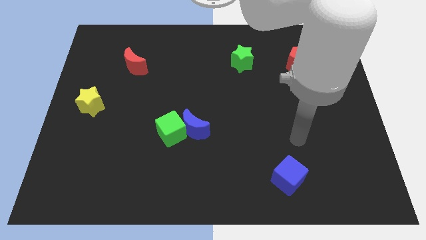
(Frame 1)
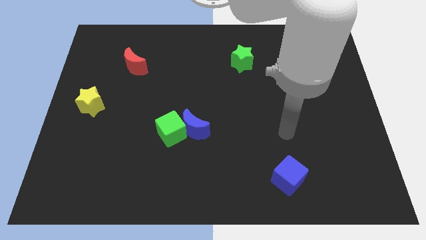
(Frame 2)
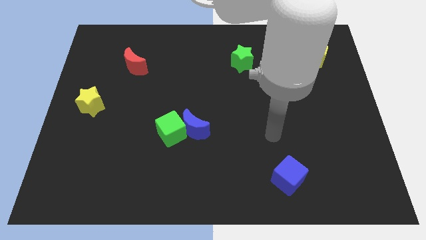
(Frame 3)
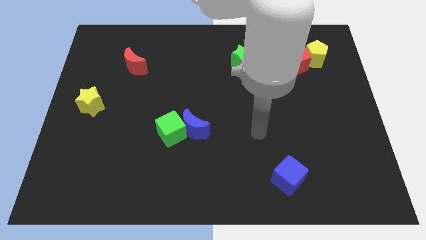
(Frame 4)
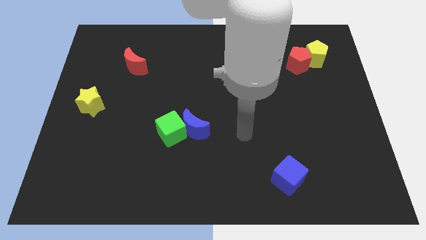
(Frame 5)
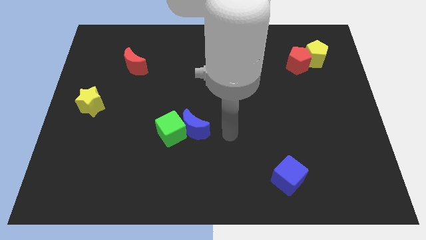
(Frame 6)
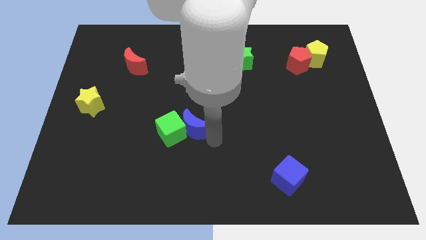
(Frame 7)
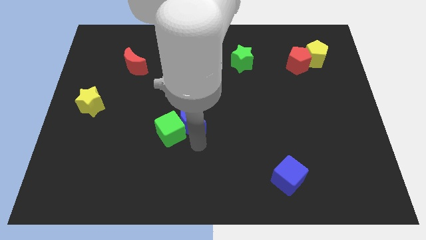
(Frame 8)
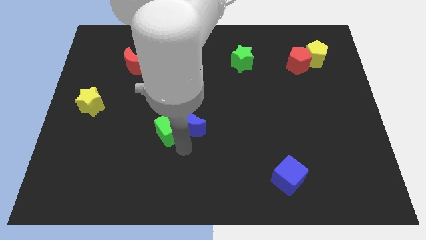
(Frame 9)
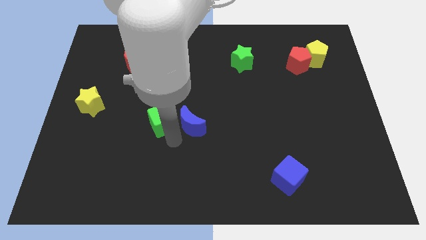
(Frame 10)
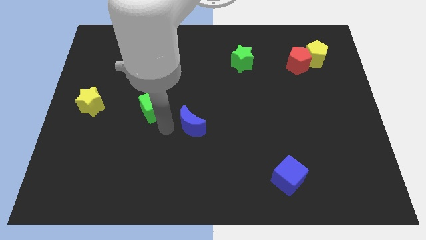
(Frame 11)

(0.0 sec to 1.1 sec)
pull the blue moon apart from the green cube

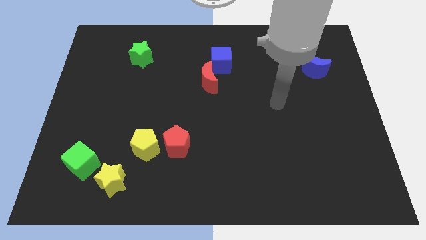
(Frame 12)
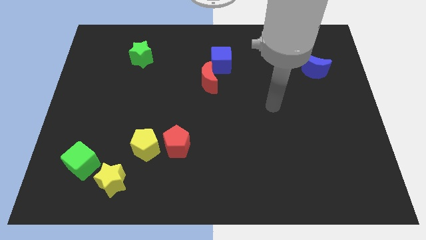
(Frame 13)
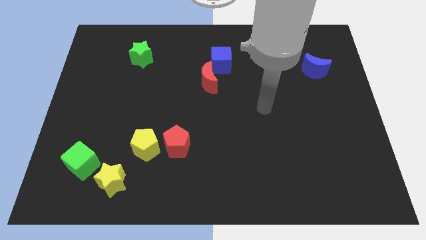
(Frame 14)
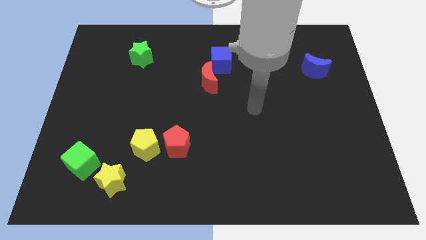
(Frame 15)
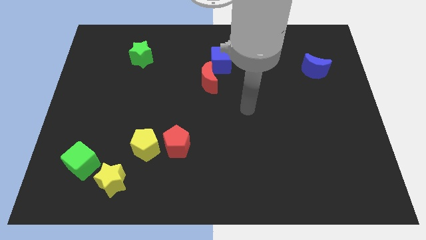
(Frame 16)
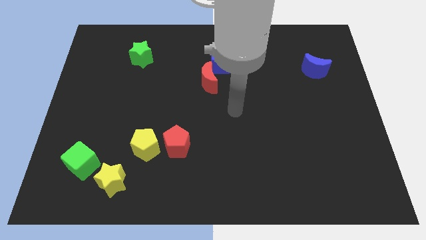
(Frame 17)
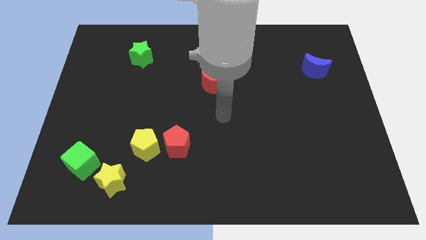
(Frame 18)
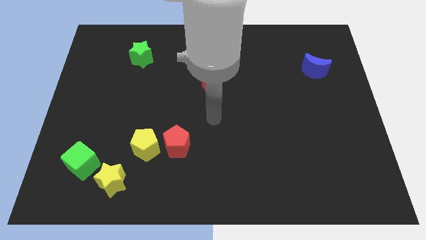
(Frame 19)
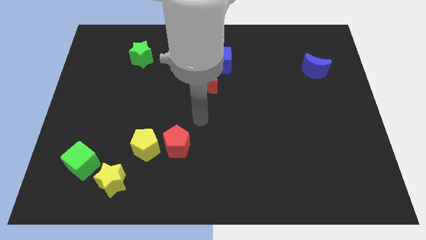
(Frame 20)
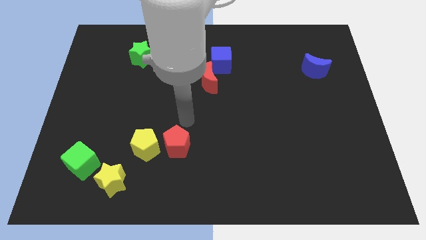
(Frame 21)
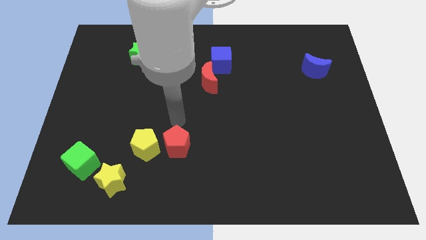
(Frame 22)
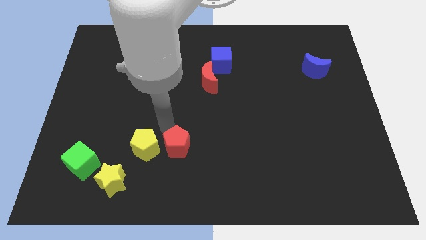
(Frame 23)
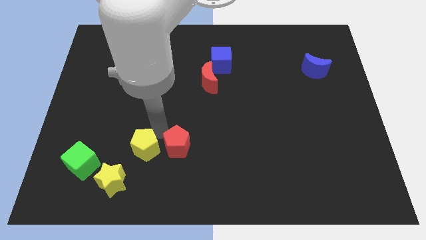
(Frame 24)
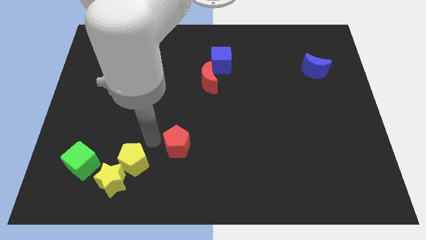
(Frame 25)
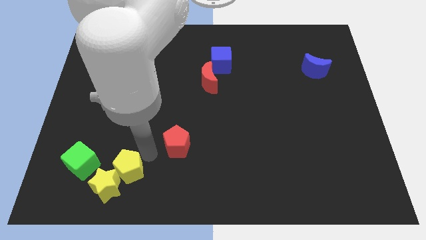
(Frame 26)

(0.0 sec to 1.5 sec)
pull the red pentagon apart from the yellow pentagon

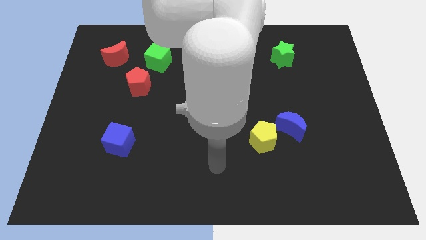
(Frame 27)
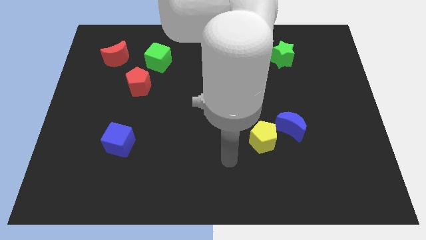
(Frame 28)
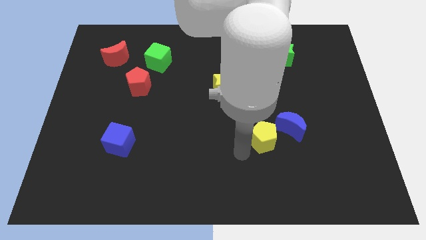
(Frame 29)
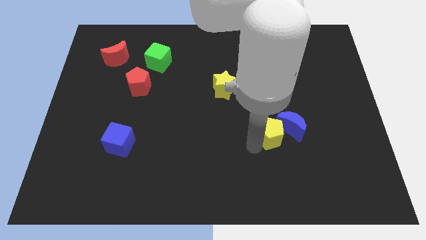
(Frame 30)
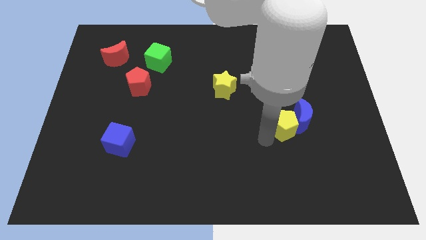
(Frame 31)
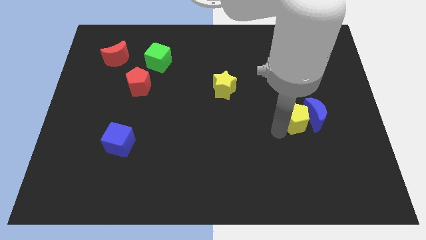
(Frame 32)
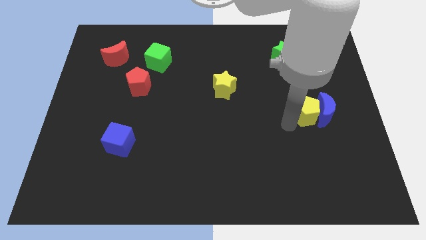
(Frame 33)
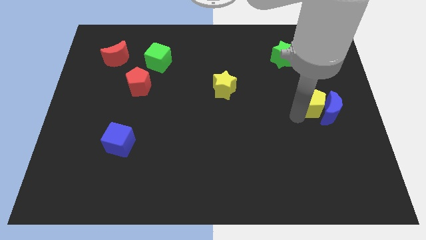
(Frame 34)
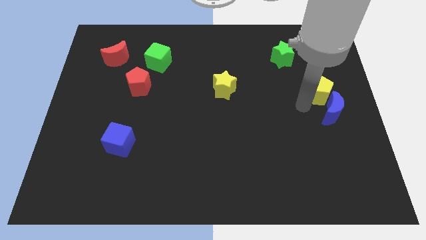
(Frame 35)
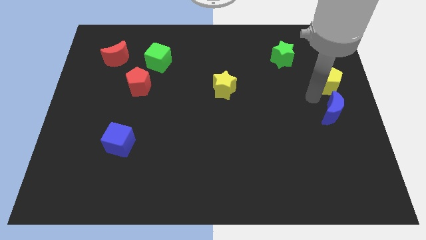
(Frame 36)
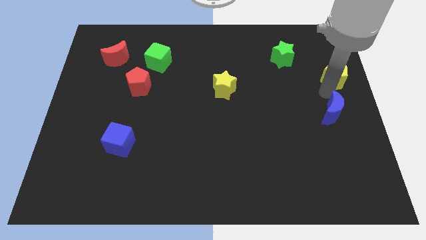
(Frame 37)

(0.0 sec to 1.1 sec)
pull the blue moon apart from the yellow pentagon

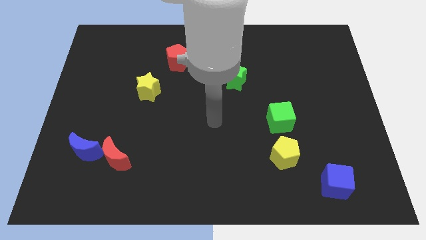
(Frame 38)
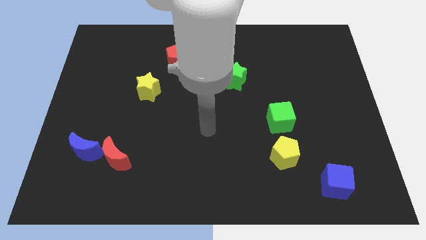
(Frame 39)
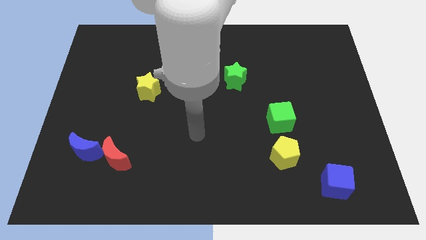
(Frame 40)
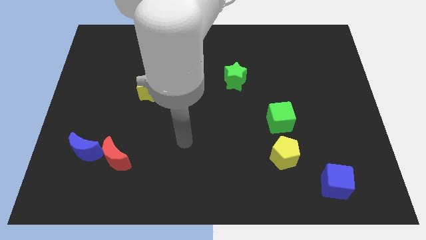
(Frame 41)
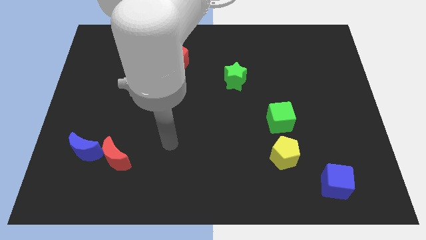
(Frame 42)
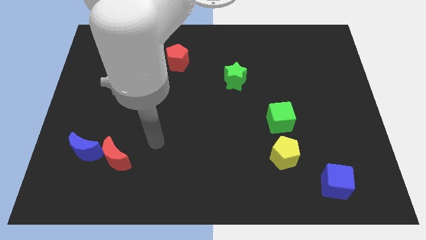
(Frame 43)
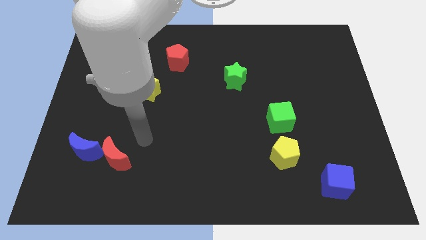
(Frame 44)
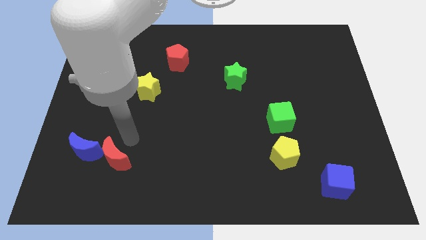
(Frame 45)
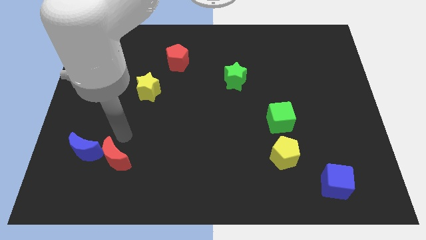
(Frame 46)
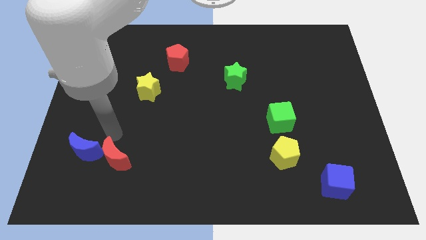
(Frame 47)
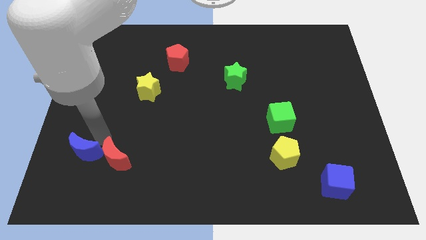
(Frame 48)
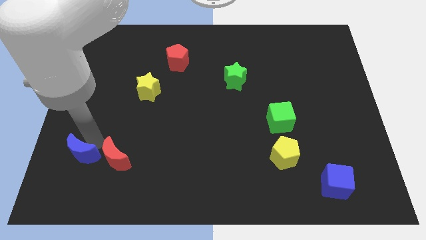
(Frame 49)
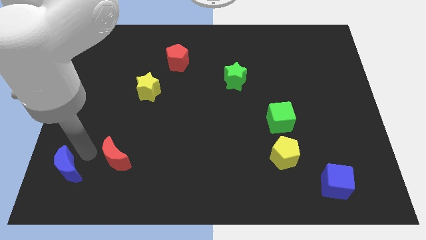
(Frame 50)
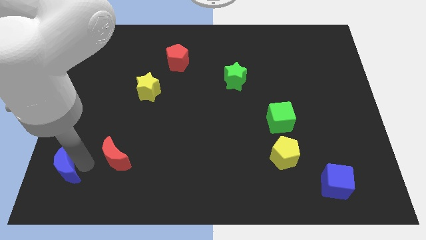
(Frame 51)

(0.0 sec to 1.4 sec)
separate the red moon from the blue moon

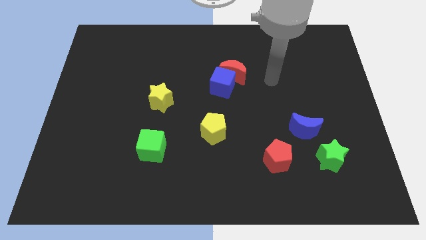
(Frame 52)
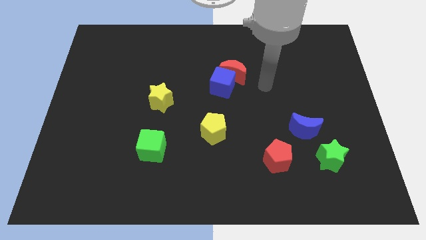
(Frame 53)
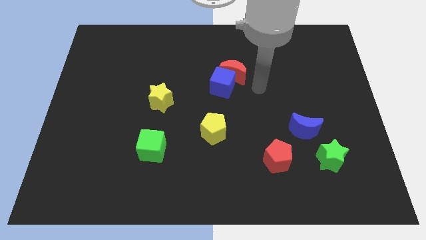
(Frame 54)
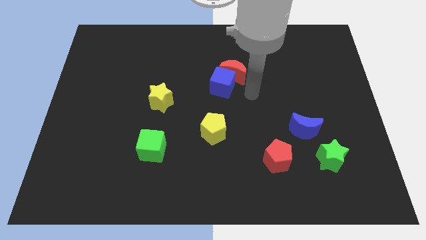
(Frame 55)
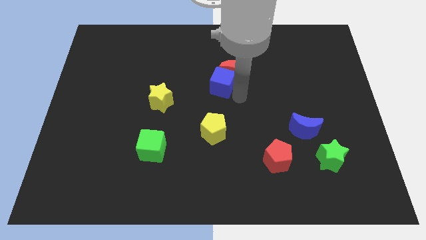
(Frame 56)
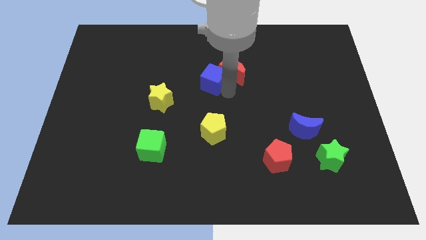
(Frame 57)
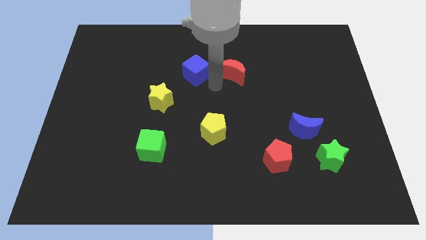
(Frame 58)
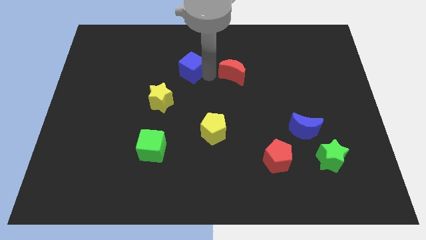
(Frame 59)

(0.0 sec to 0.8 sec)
move the red moon away from the blue cube

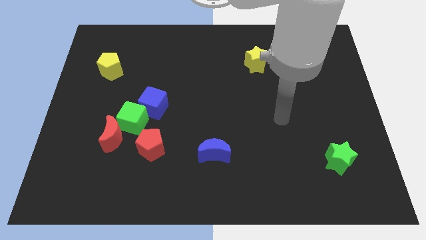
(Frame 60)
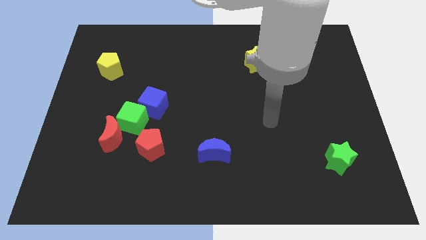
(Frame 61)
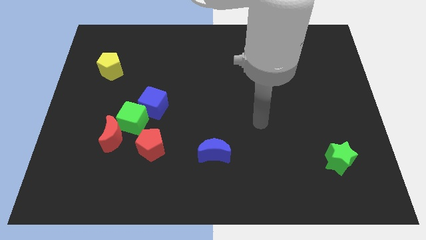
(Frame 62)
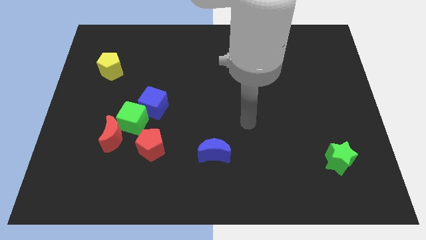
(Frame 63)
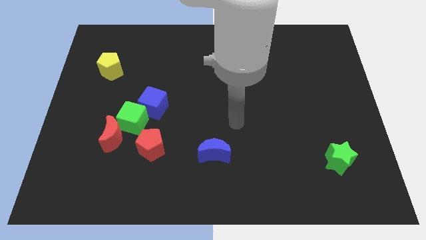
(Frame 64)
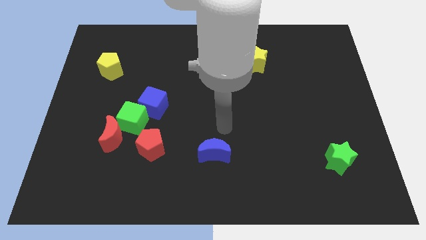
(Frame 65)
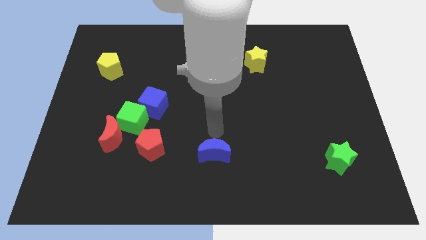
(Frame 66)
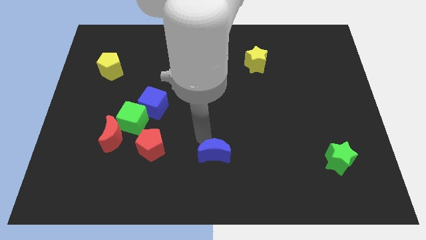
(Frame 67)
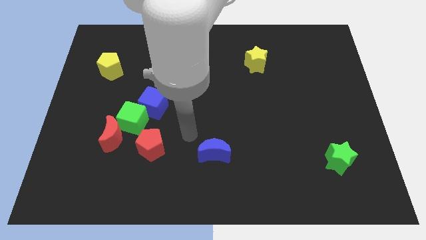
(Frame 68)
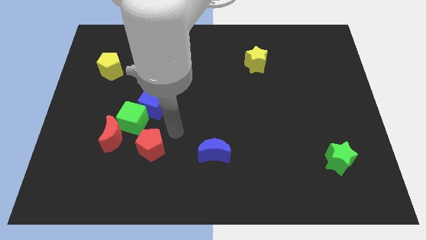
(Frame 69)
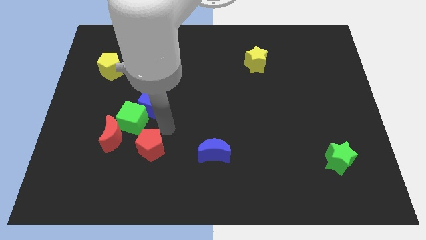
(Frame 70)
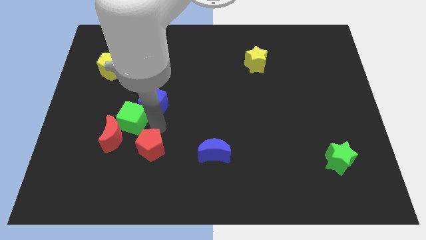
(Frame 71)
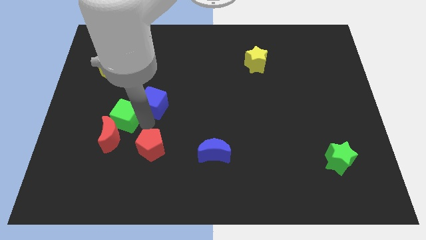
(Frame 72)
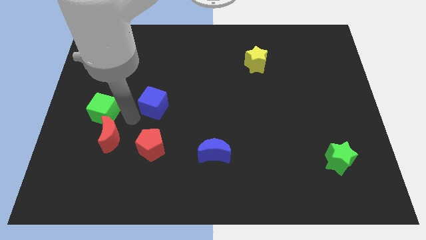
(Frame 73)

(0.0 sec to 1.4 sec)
separate the blue cube from the green cube

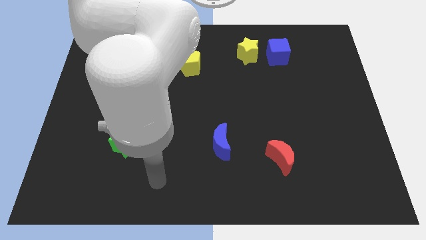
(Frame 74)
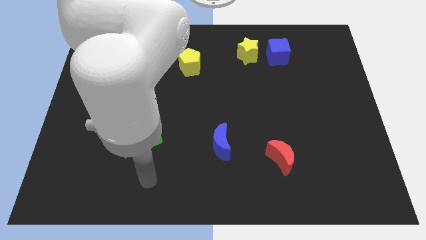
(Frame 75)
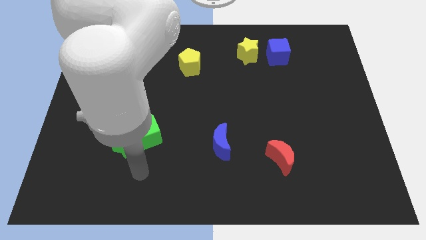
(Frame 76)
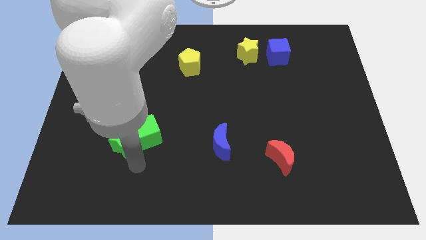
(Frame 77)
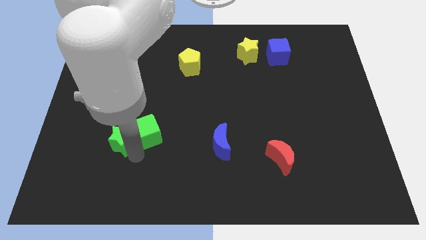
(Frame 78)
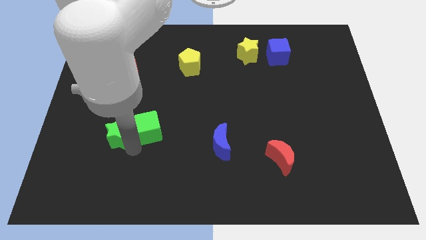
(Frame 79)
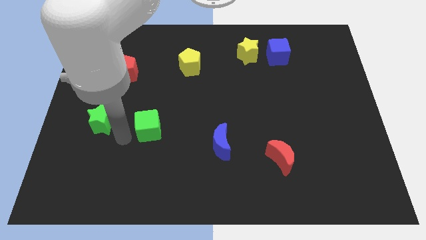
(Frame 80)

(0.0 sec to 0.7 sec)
pull the green cube apart from the green star

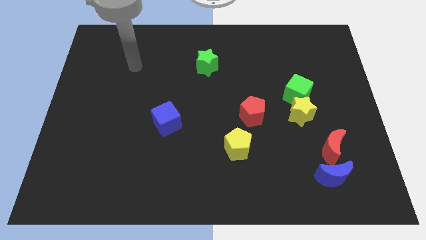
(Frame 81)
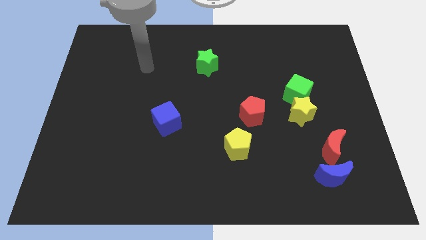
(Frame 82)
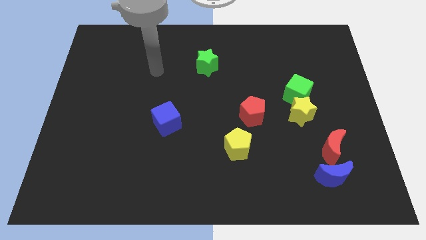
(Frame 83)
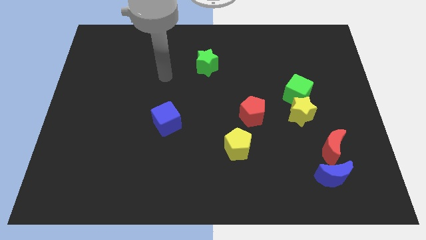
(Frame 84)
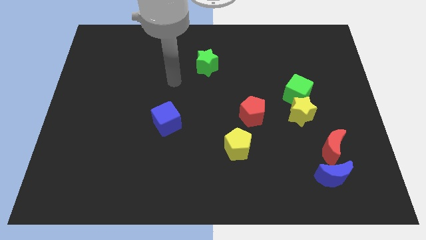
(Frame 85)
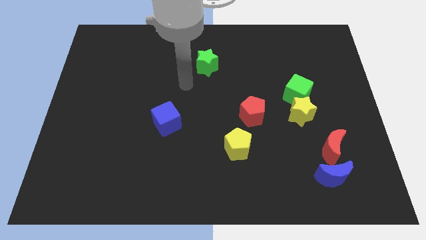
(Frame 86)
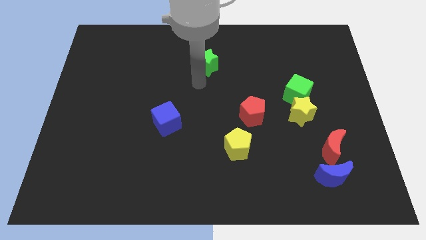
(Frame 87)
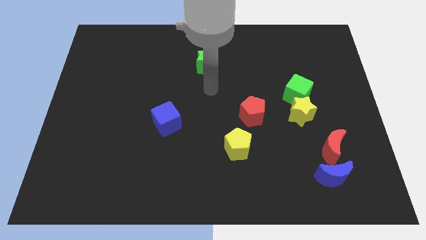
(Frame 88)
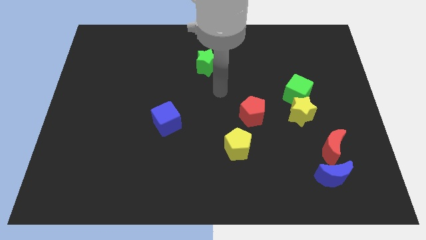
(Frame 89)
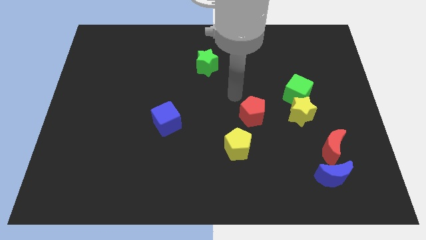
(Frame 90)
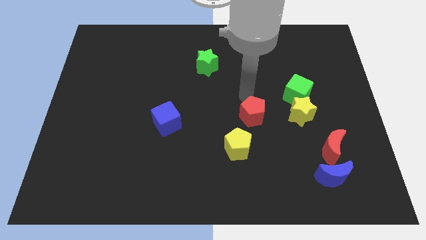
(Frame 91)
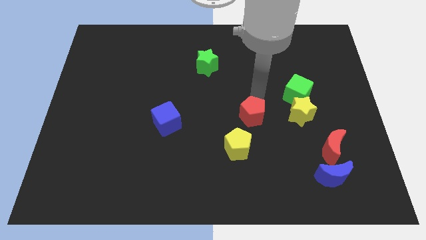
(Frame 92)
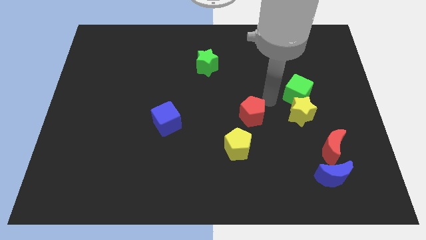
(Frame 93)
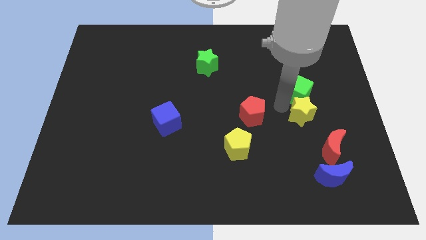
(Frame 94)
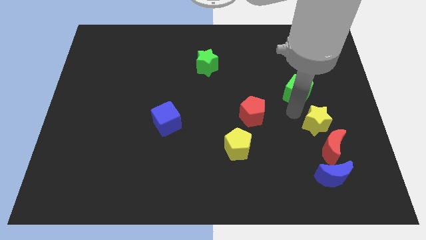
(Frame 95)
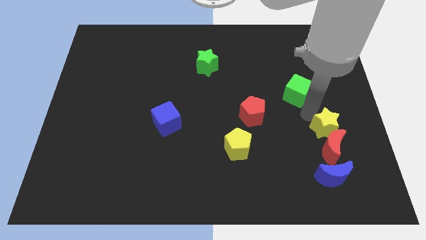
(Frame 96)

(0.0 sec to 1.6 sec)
separate the green cube from the yellow star
